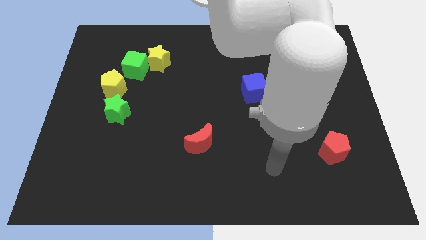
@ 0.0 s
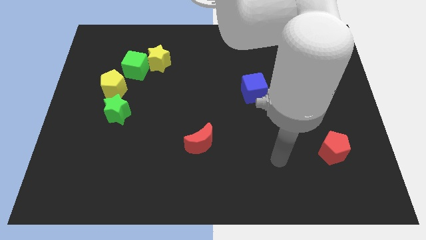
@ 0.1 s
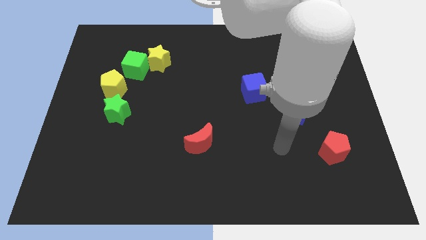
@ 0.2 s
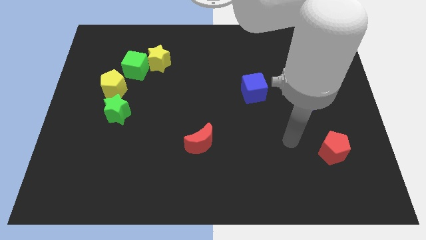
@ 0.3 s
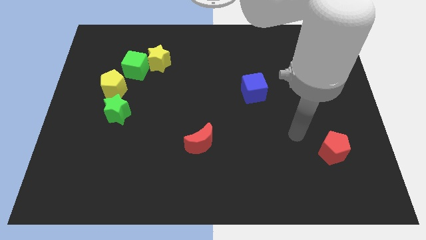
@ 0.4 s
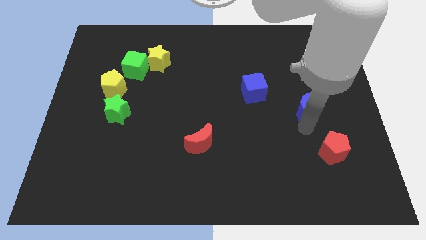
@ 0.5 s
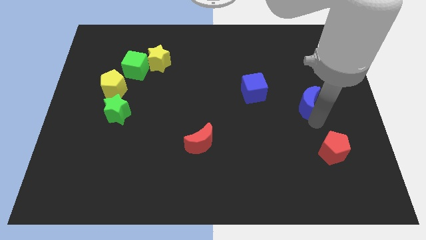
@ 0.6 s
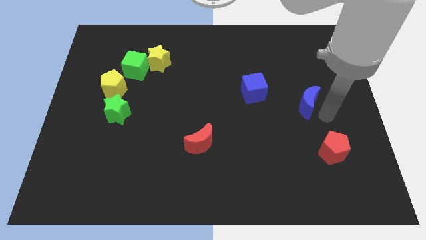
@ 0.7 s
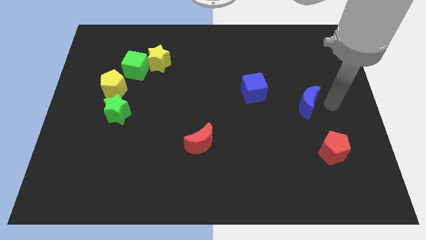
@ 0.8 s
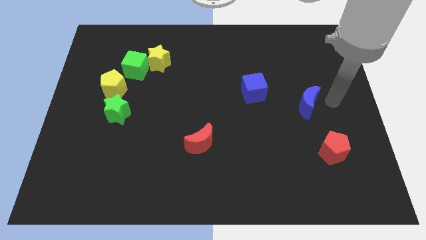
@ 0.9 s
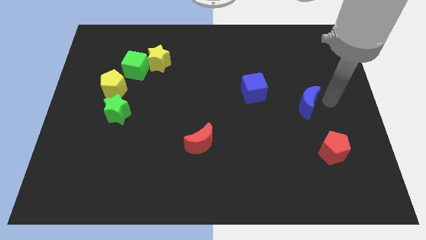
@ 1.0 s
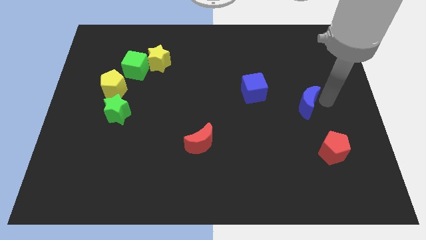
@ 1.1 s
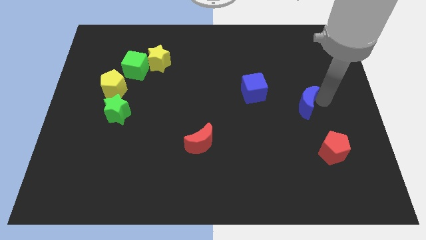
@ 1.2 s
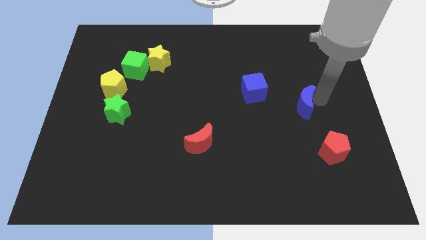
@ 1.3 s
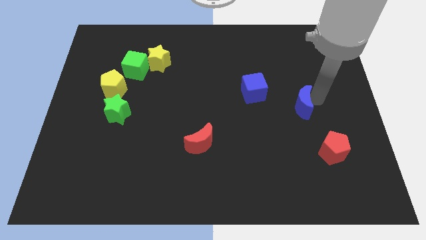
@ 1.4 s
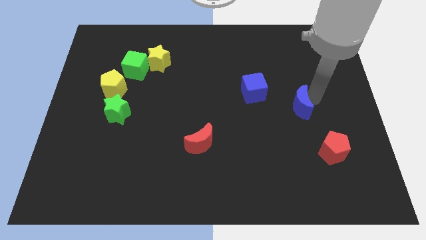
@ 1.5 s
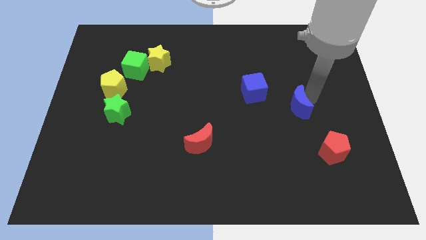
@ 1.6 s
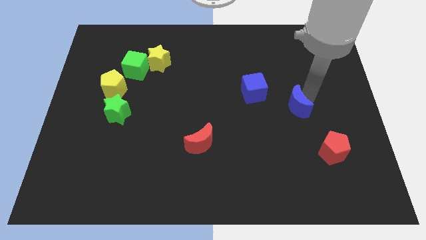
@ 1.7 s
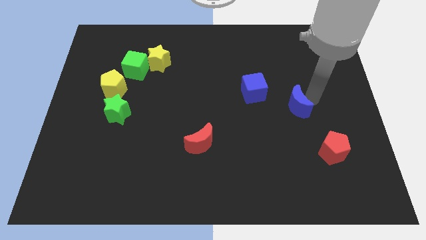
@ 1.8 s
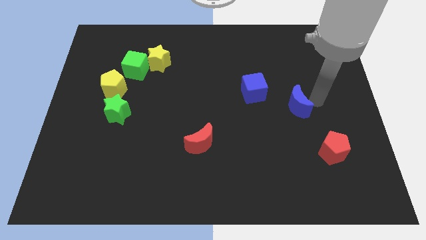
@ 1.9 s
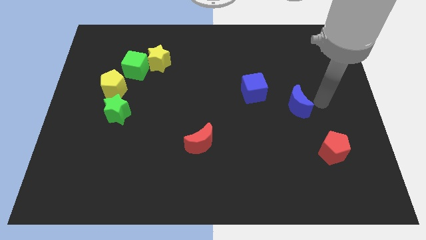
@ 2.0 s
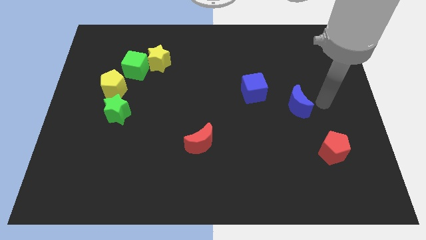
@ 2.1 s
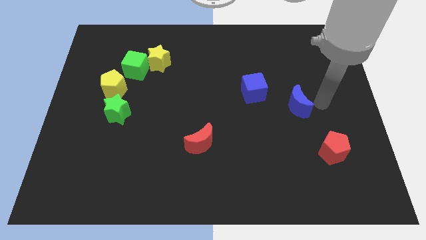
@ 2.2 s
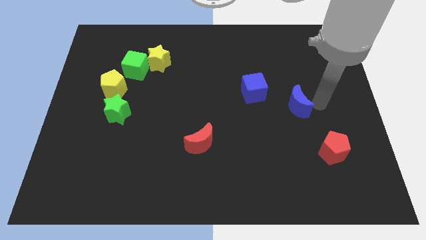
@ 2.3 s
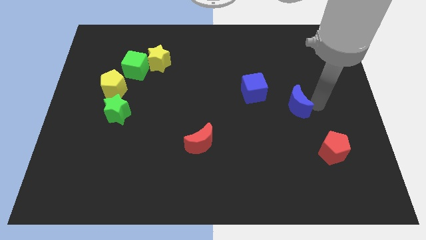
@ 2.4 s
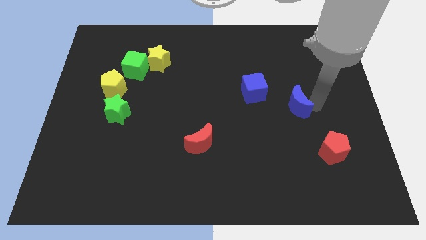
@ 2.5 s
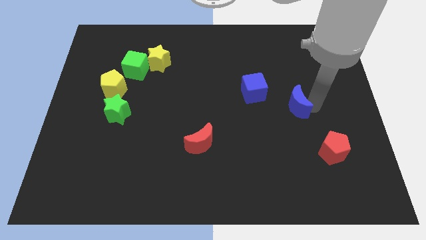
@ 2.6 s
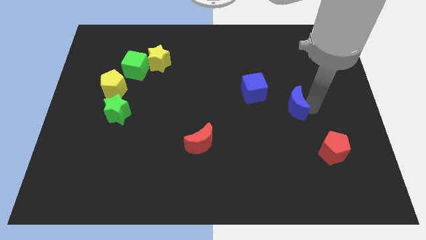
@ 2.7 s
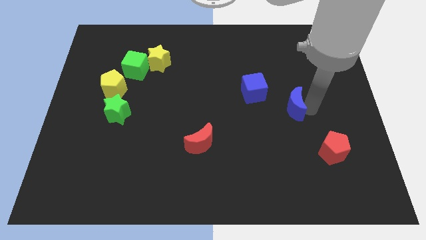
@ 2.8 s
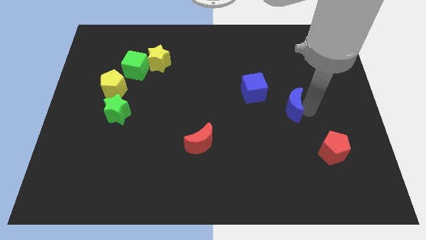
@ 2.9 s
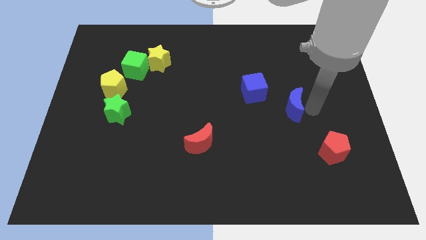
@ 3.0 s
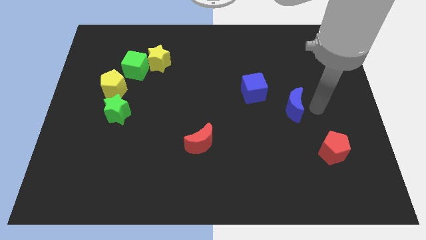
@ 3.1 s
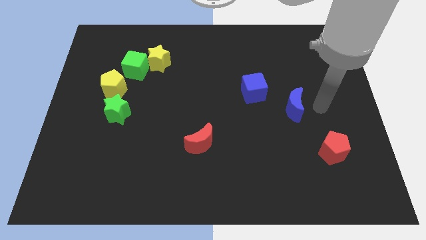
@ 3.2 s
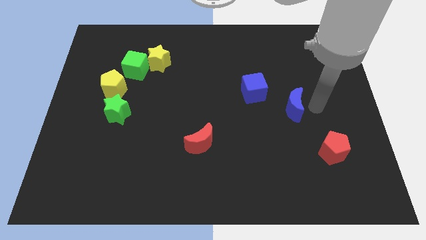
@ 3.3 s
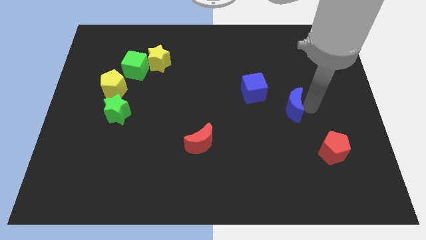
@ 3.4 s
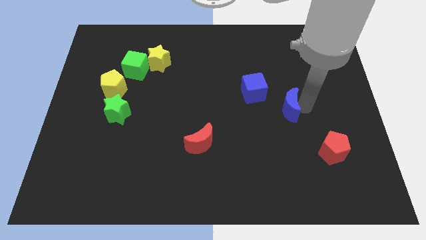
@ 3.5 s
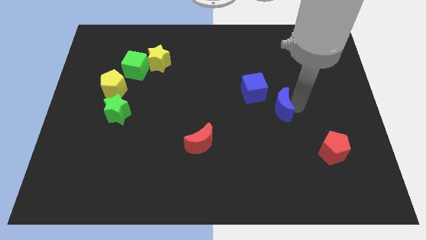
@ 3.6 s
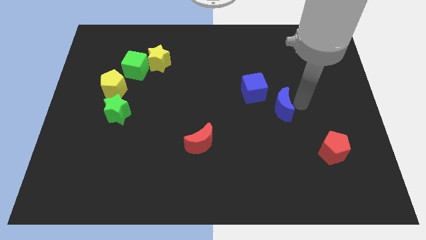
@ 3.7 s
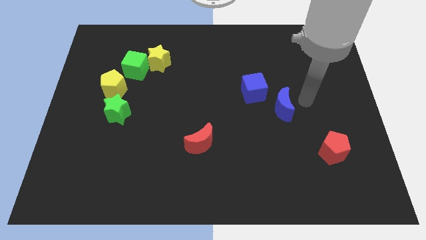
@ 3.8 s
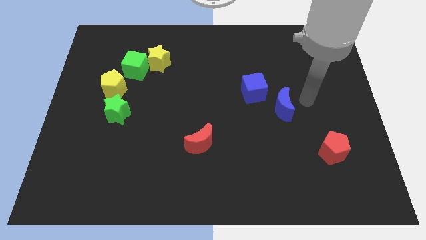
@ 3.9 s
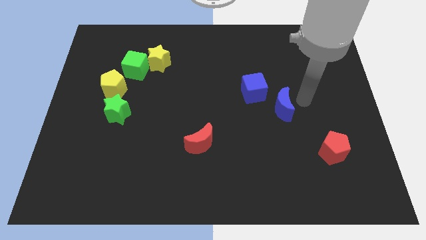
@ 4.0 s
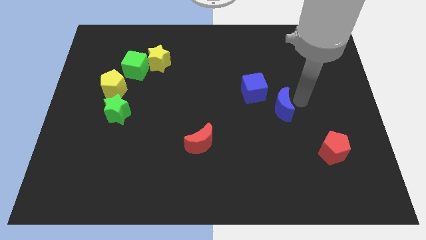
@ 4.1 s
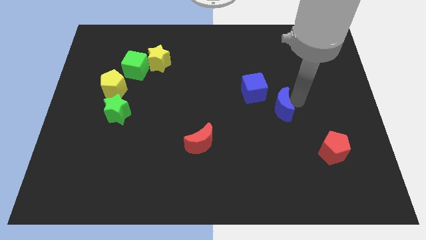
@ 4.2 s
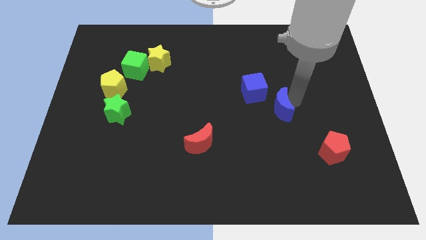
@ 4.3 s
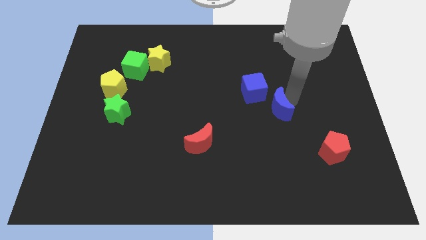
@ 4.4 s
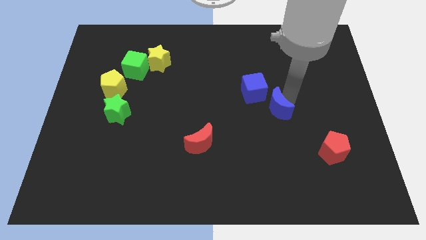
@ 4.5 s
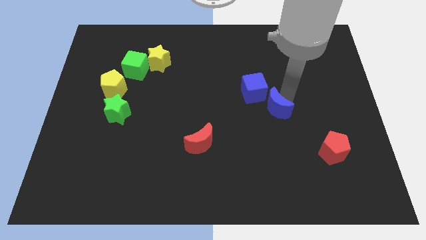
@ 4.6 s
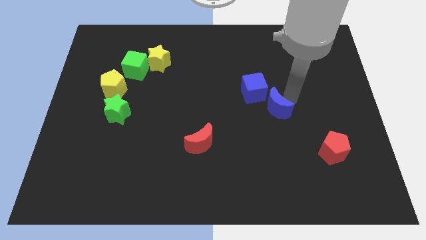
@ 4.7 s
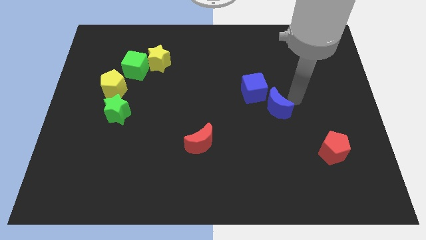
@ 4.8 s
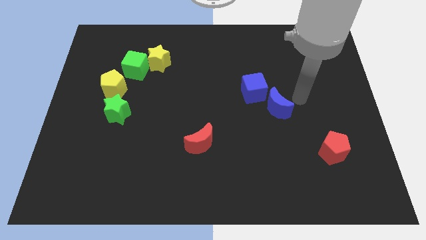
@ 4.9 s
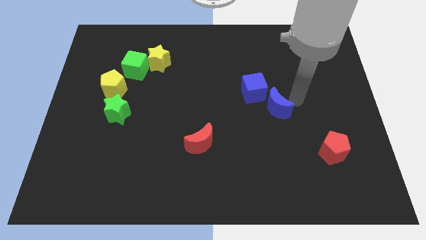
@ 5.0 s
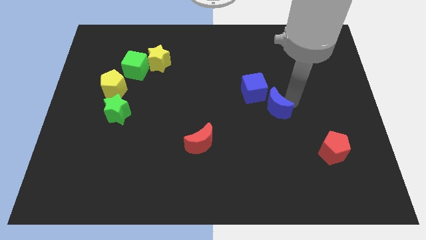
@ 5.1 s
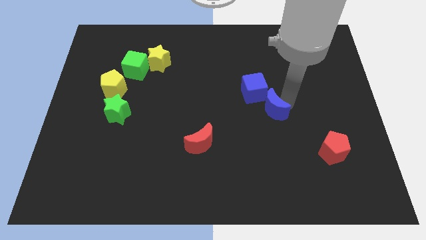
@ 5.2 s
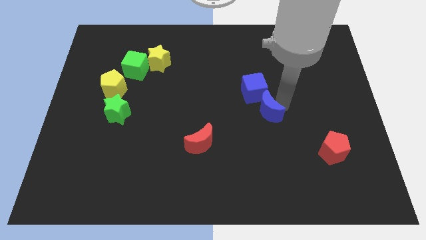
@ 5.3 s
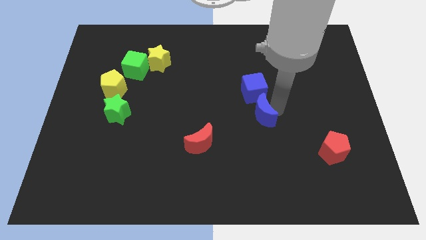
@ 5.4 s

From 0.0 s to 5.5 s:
slide the blue moon to the center of the board
